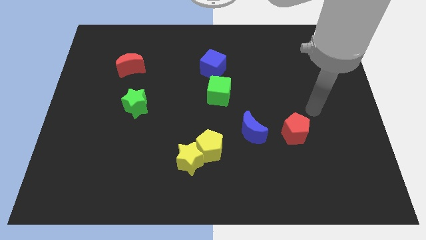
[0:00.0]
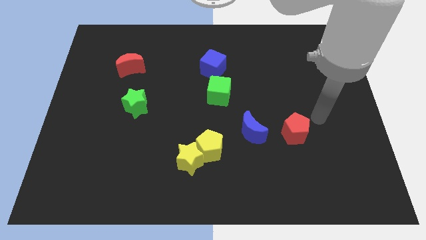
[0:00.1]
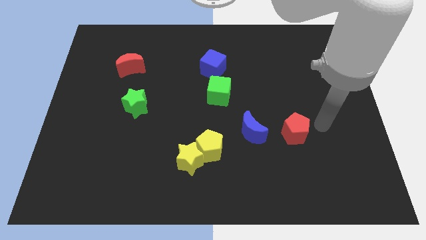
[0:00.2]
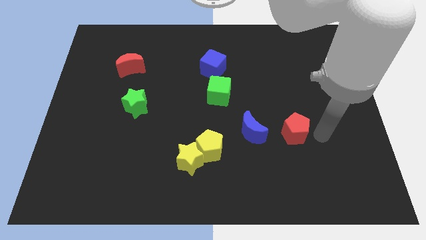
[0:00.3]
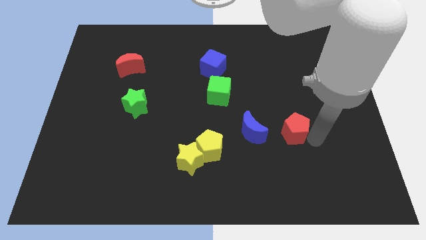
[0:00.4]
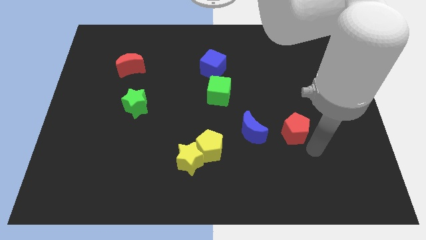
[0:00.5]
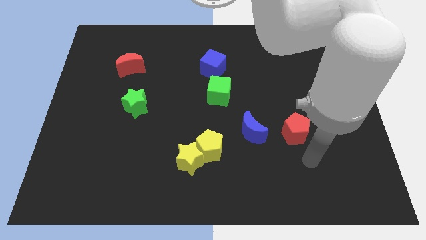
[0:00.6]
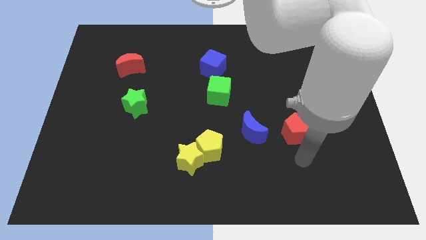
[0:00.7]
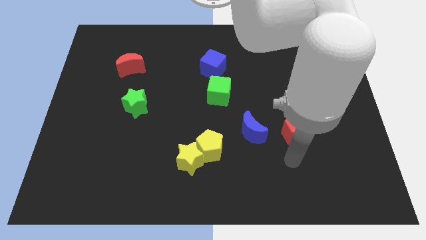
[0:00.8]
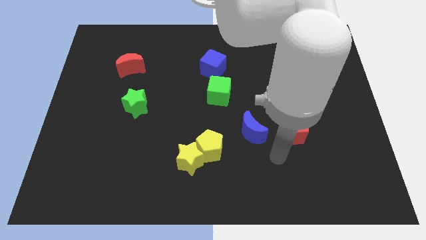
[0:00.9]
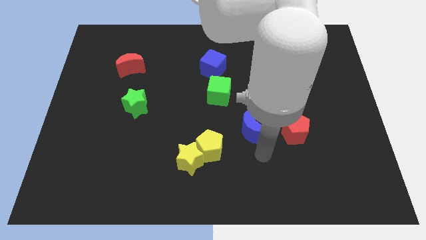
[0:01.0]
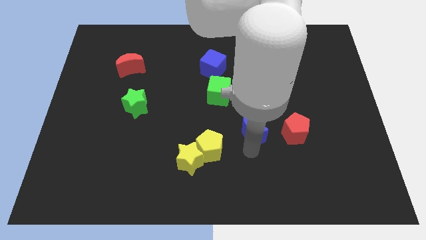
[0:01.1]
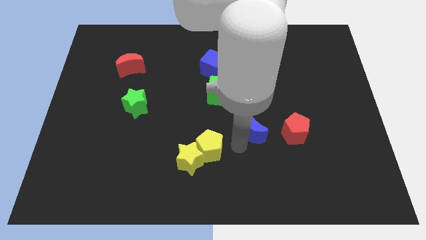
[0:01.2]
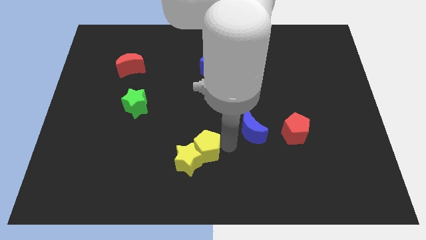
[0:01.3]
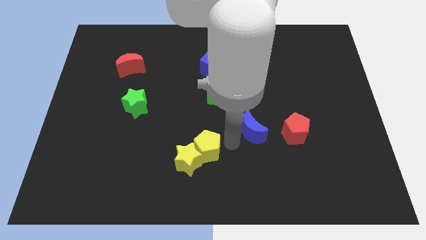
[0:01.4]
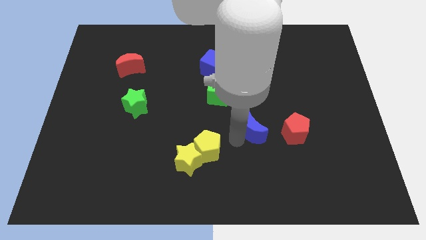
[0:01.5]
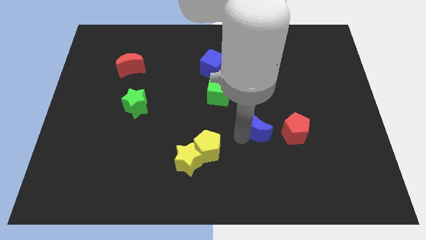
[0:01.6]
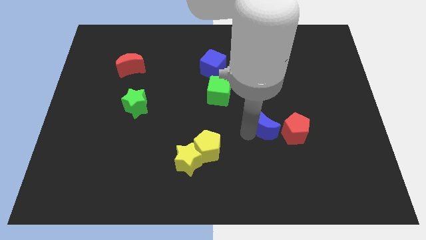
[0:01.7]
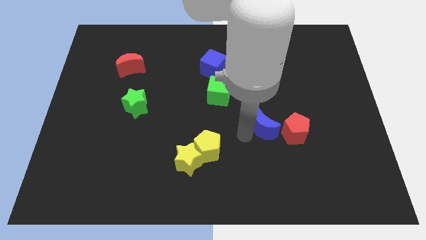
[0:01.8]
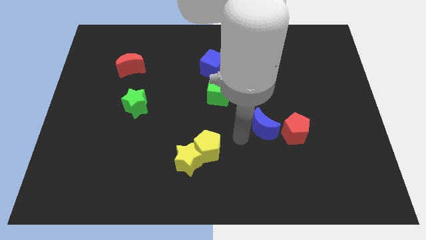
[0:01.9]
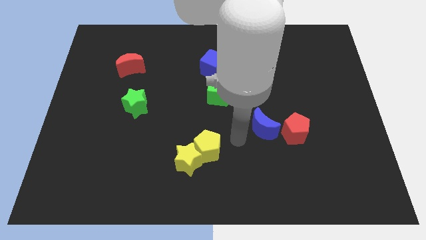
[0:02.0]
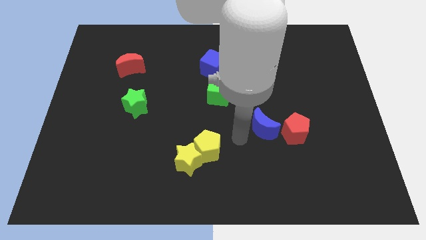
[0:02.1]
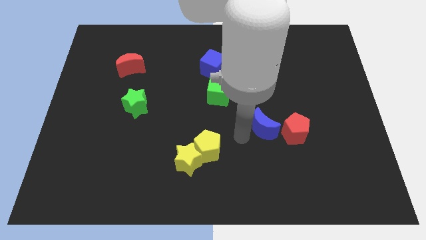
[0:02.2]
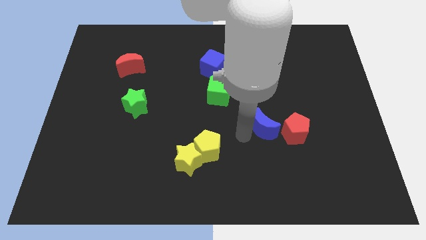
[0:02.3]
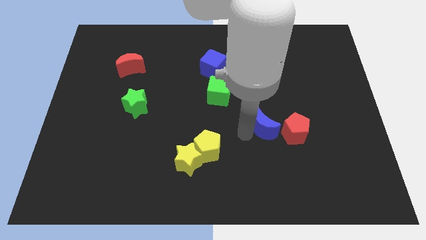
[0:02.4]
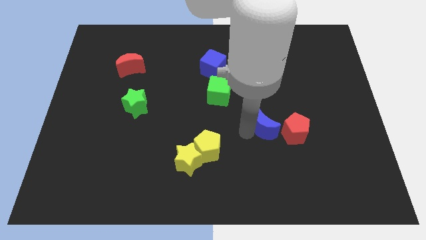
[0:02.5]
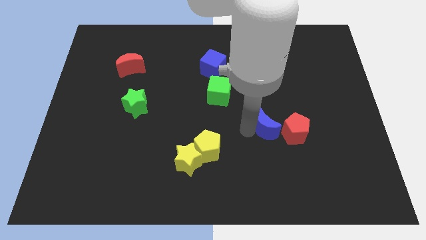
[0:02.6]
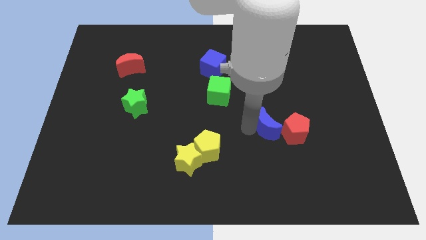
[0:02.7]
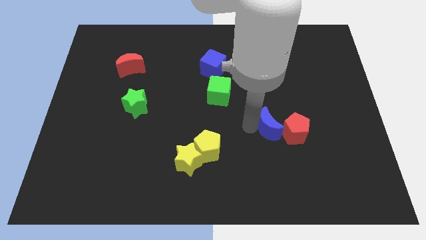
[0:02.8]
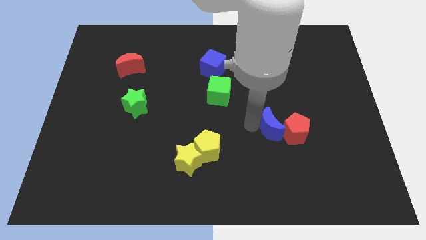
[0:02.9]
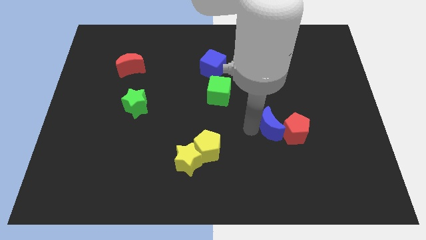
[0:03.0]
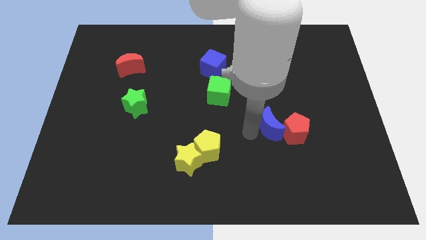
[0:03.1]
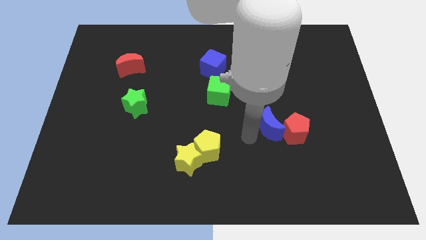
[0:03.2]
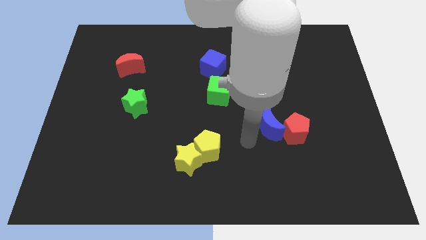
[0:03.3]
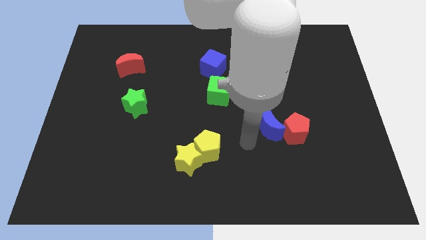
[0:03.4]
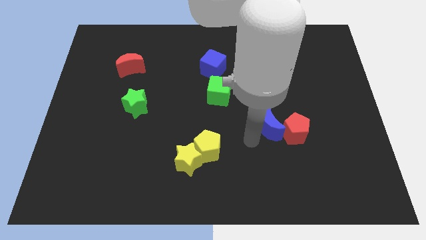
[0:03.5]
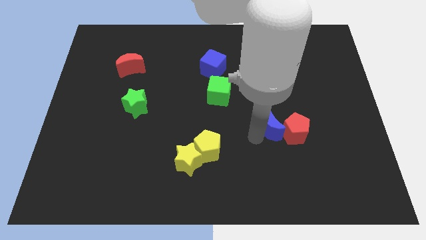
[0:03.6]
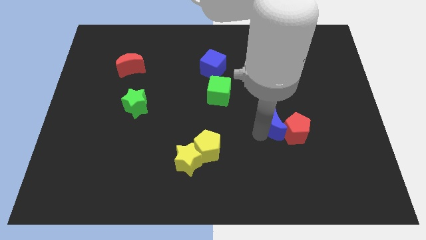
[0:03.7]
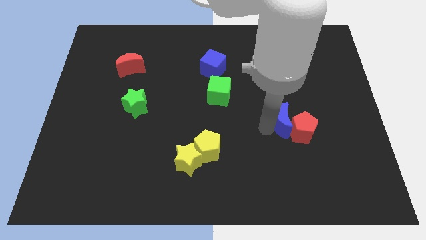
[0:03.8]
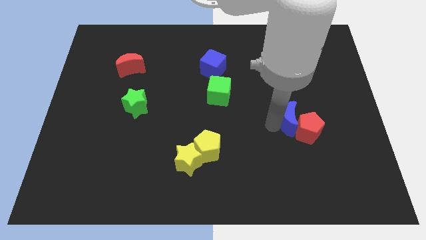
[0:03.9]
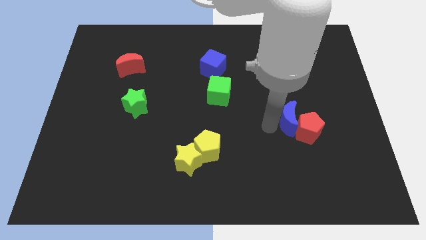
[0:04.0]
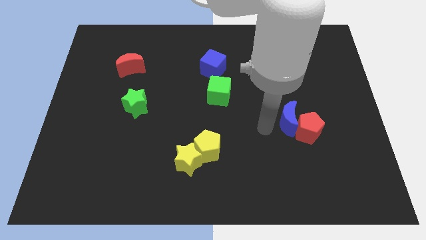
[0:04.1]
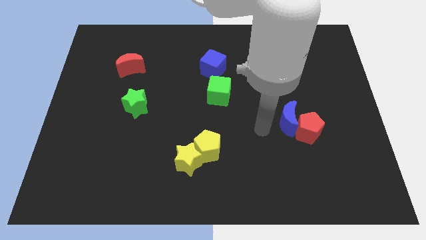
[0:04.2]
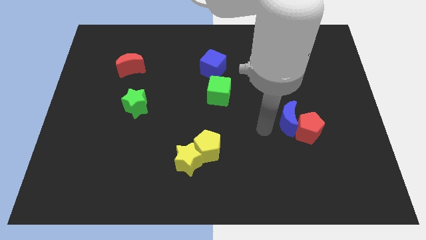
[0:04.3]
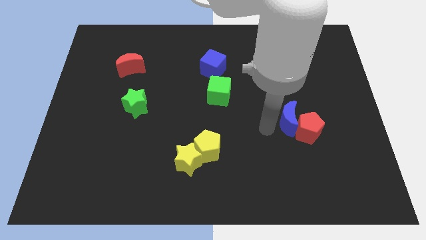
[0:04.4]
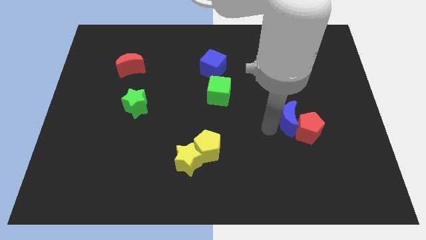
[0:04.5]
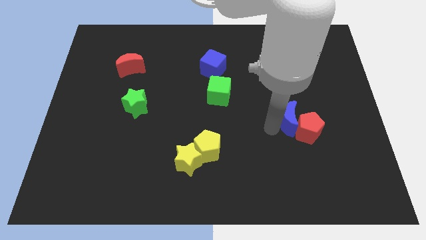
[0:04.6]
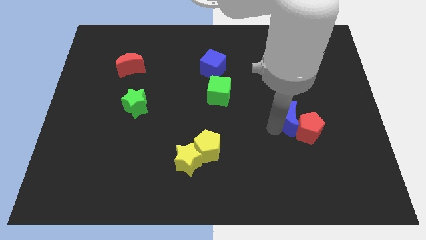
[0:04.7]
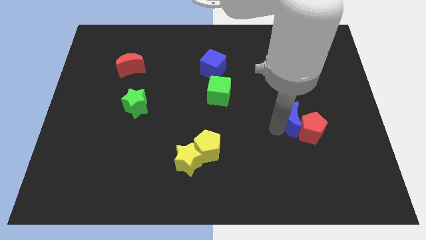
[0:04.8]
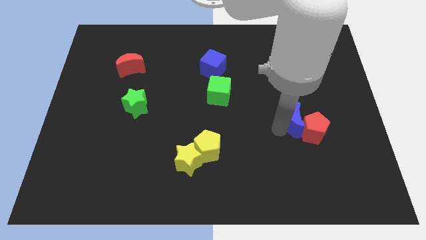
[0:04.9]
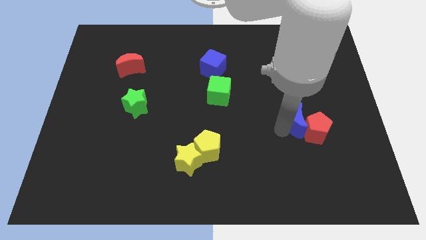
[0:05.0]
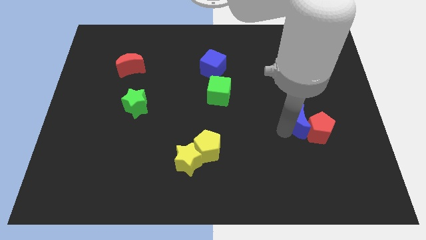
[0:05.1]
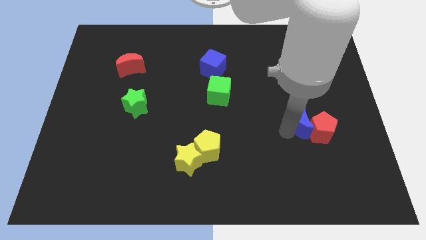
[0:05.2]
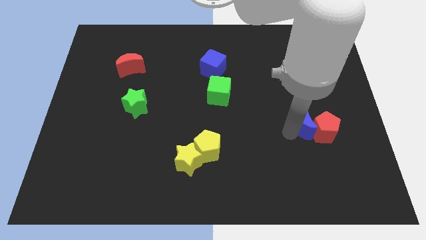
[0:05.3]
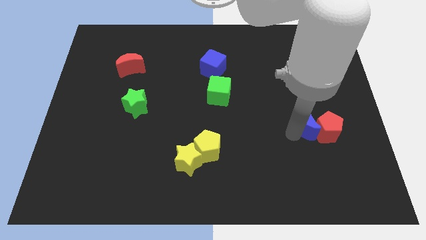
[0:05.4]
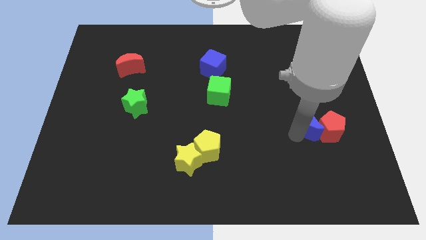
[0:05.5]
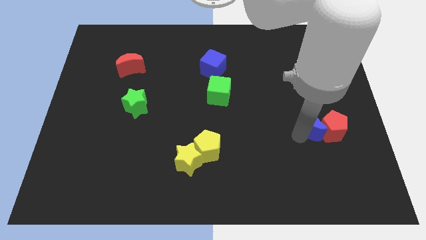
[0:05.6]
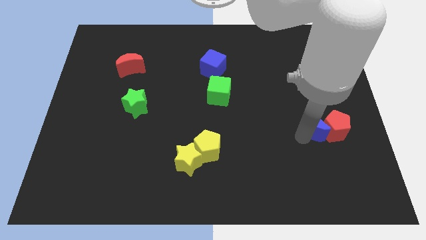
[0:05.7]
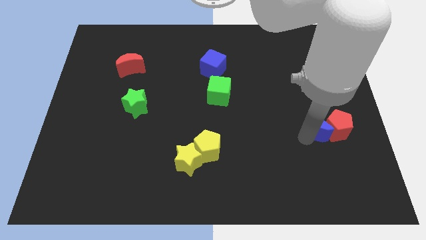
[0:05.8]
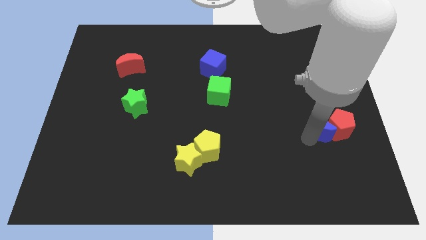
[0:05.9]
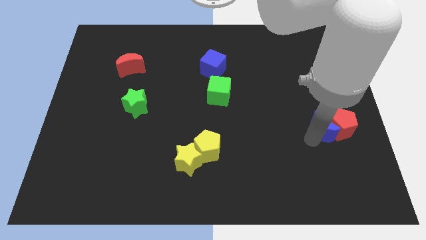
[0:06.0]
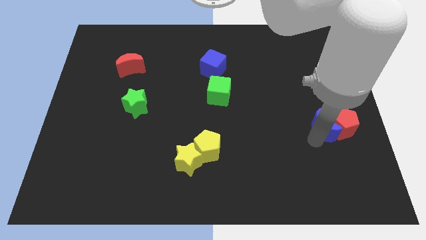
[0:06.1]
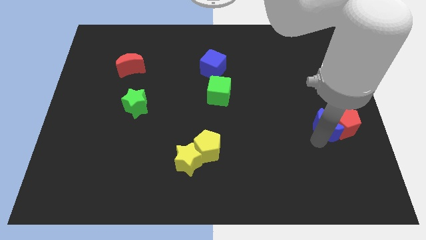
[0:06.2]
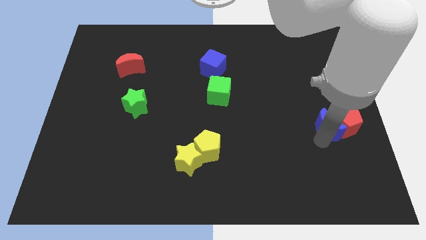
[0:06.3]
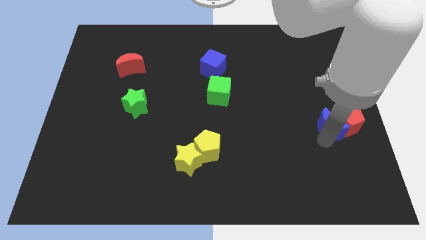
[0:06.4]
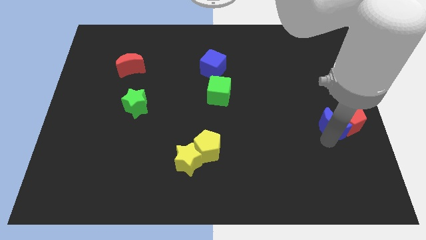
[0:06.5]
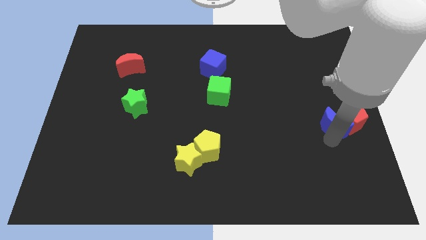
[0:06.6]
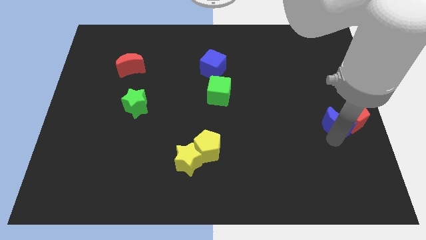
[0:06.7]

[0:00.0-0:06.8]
put the blue moon to the right side of the board

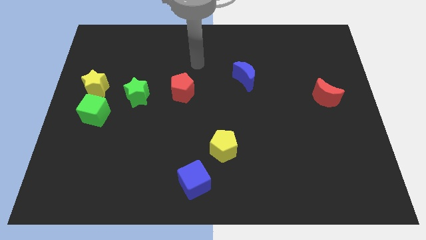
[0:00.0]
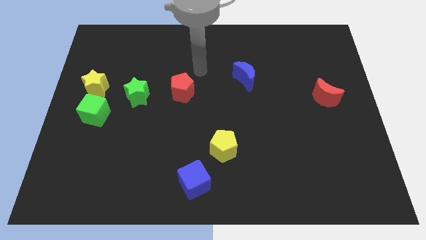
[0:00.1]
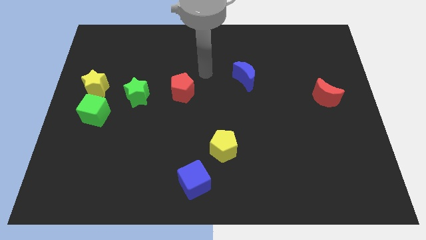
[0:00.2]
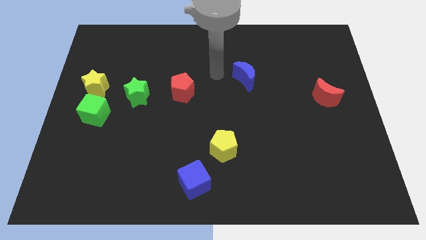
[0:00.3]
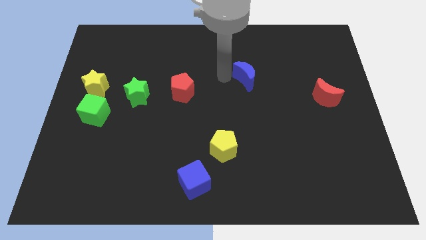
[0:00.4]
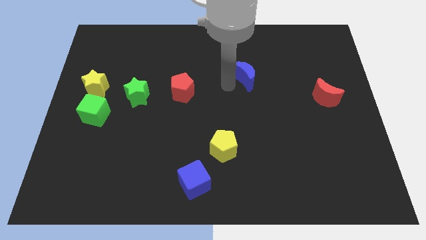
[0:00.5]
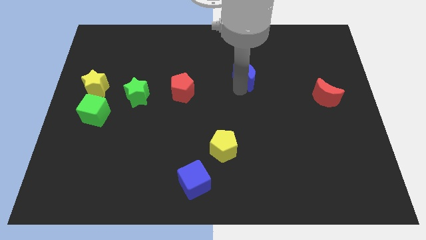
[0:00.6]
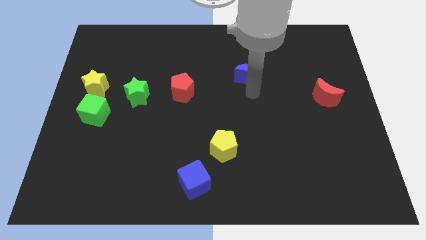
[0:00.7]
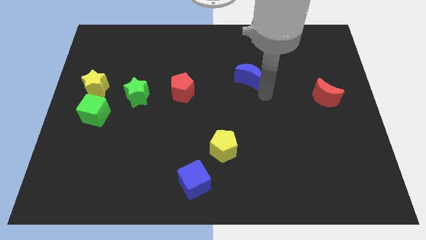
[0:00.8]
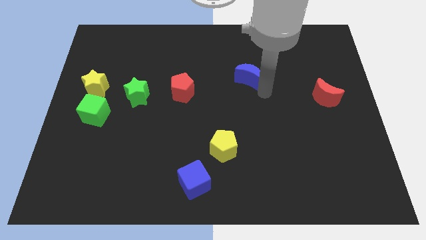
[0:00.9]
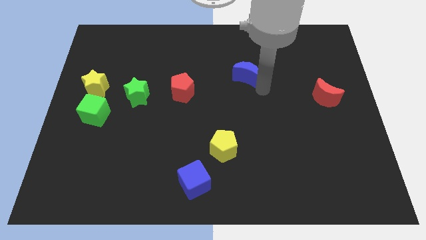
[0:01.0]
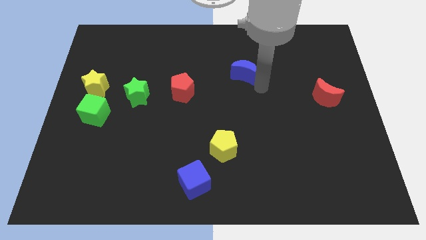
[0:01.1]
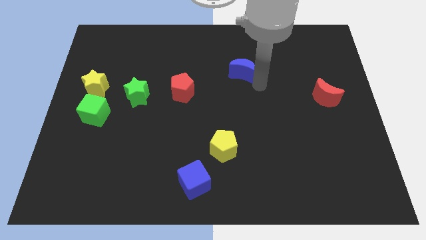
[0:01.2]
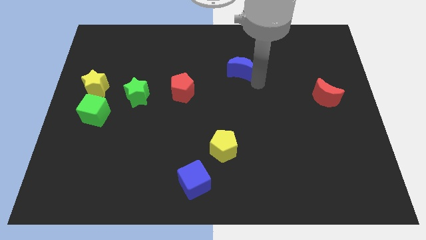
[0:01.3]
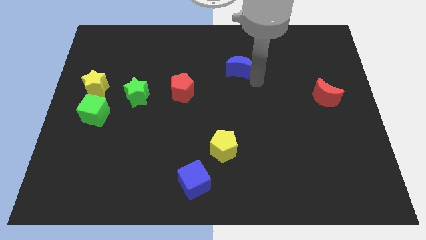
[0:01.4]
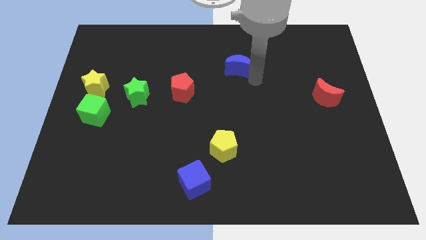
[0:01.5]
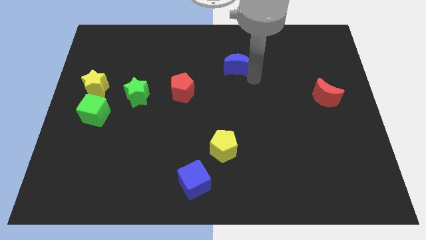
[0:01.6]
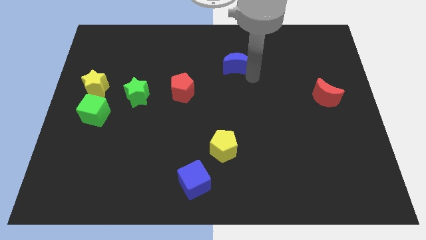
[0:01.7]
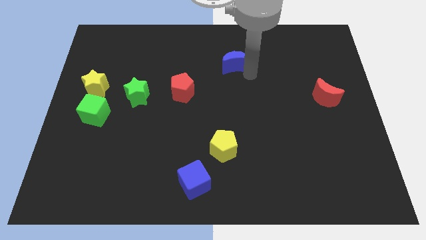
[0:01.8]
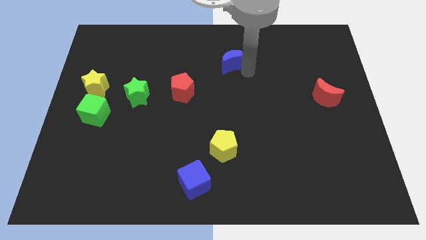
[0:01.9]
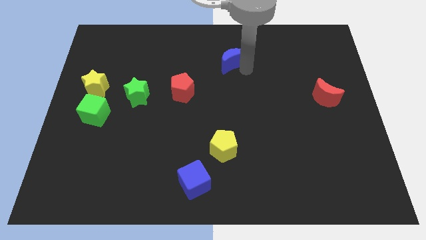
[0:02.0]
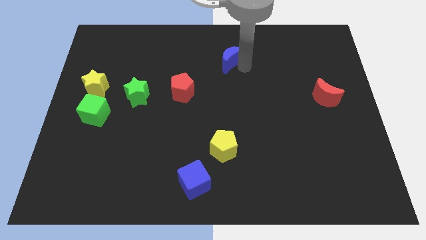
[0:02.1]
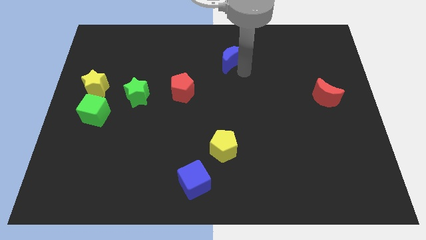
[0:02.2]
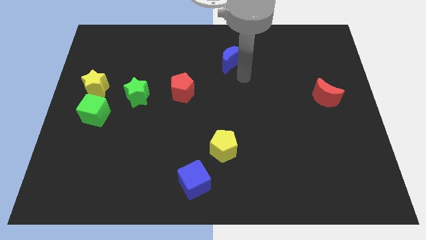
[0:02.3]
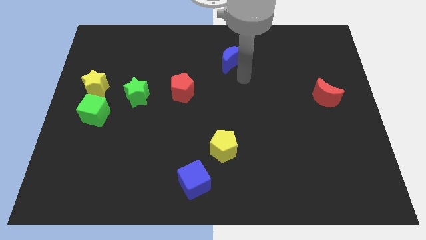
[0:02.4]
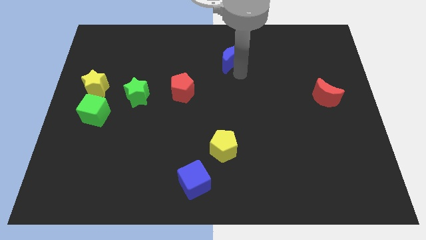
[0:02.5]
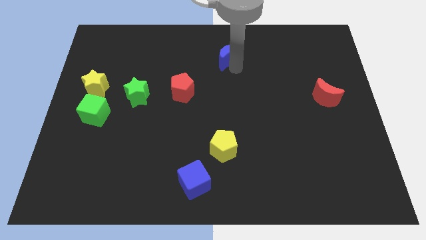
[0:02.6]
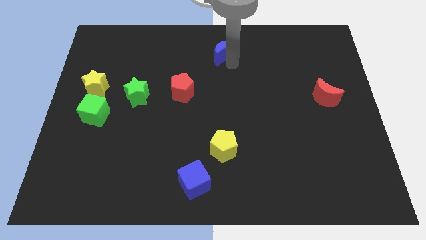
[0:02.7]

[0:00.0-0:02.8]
slide the blue moon to the top
